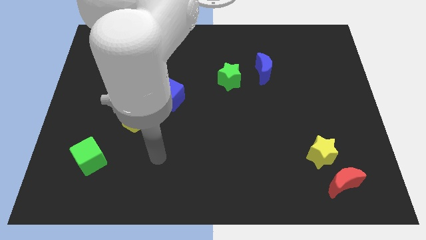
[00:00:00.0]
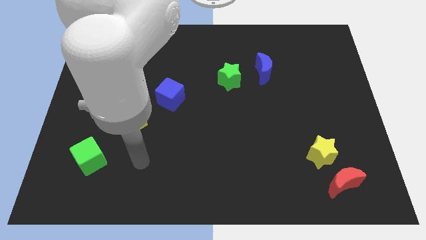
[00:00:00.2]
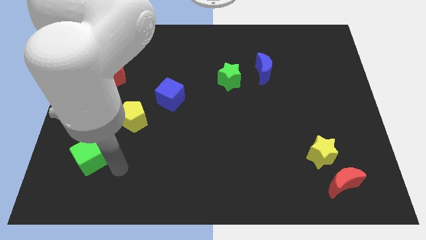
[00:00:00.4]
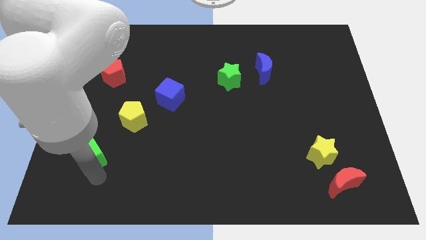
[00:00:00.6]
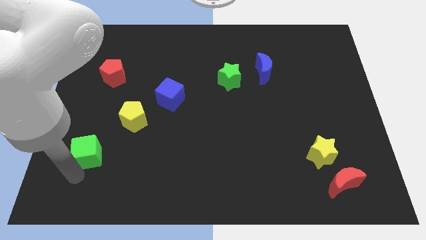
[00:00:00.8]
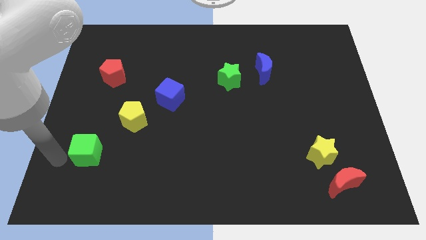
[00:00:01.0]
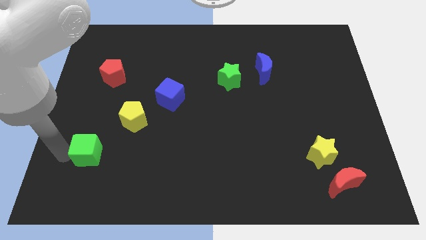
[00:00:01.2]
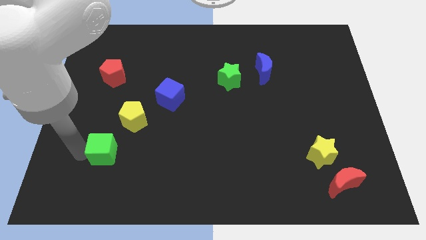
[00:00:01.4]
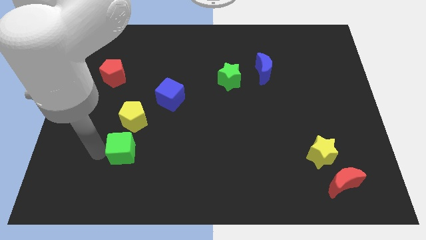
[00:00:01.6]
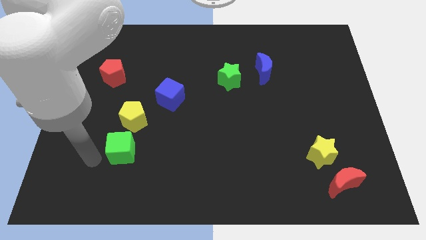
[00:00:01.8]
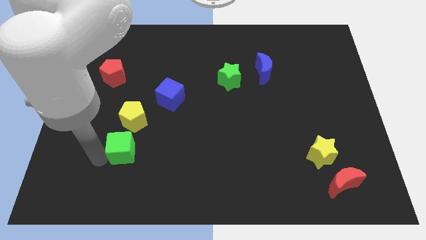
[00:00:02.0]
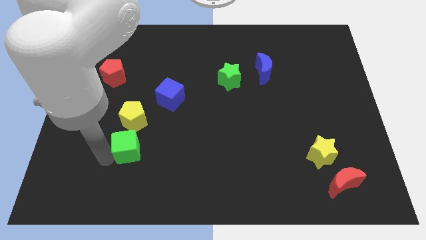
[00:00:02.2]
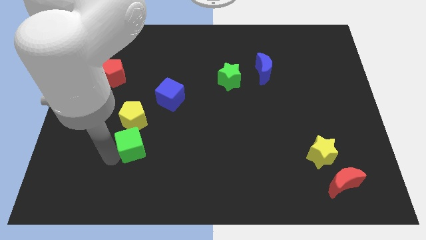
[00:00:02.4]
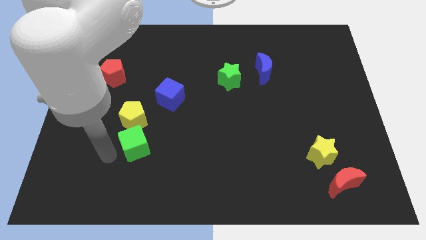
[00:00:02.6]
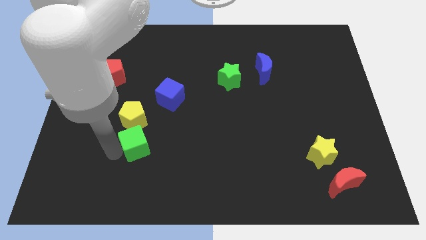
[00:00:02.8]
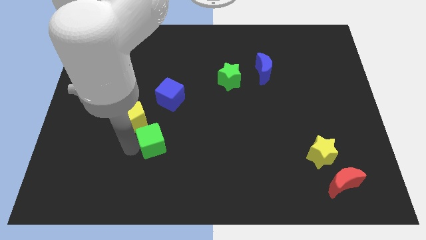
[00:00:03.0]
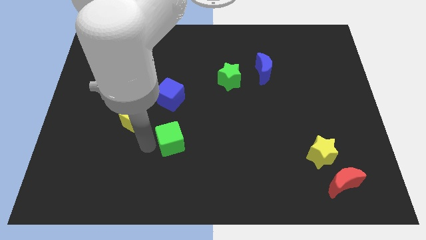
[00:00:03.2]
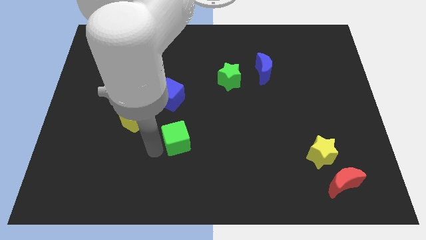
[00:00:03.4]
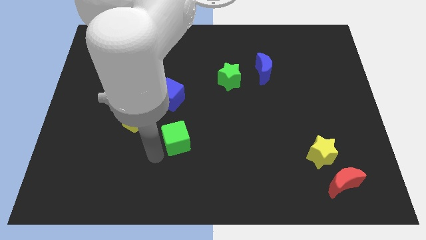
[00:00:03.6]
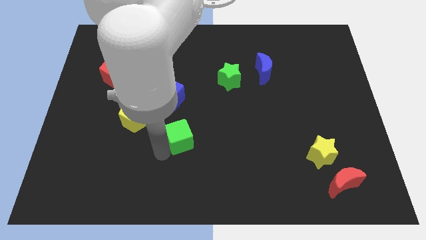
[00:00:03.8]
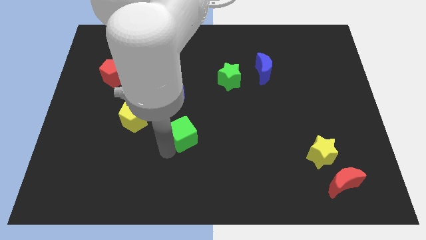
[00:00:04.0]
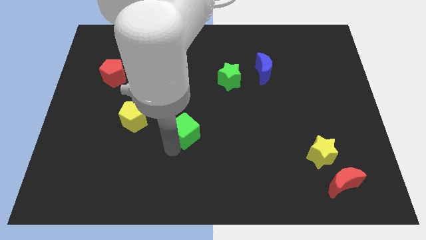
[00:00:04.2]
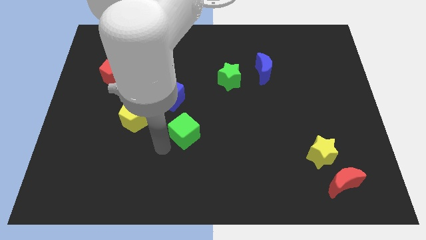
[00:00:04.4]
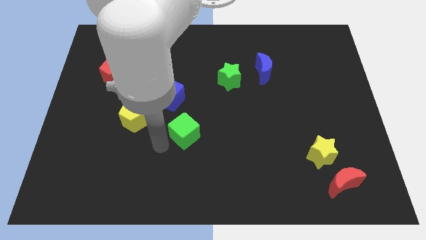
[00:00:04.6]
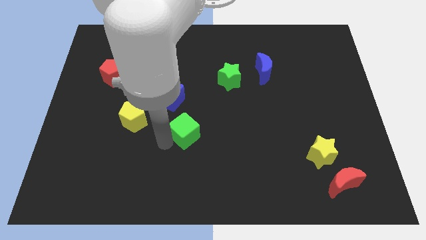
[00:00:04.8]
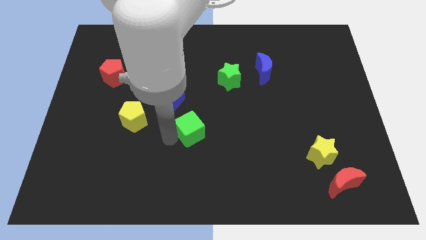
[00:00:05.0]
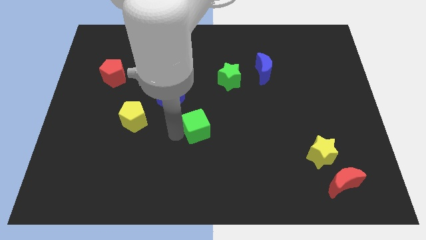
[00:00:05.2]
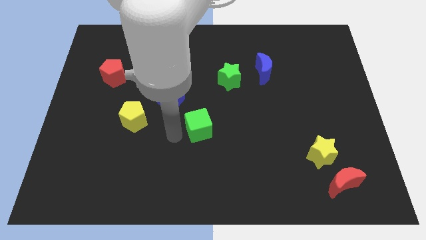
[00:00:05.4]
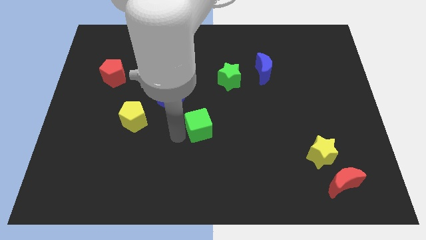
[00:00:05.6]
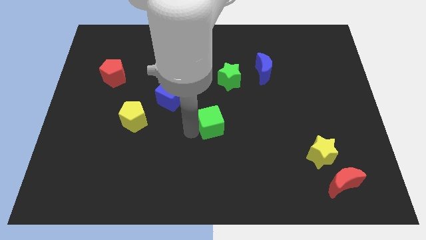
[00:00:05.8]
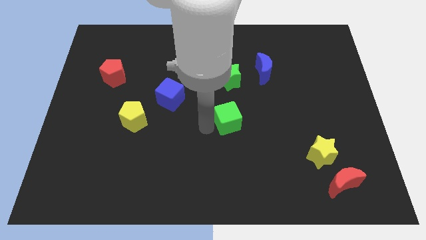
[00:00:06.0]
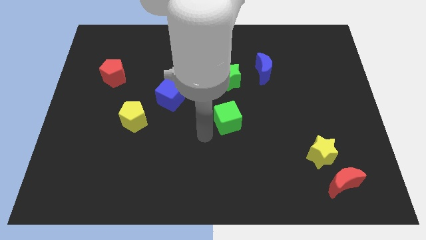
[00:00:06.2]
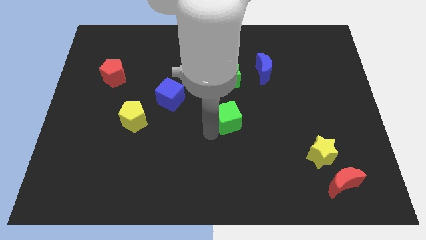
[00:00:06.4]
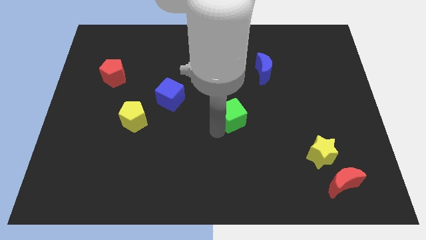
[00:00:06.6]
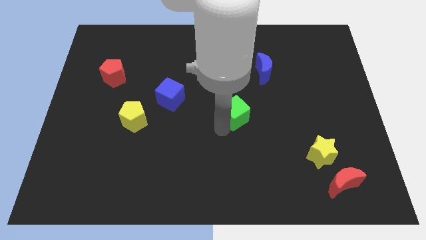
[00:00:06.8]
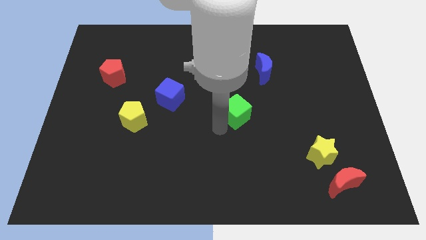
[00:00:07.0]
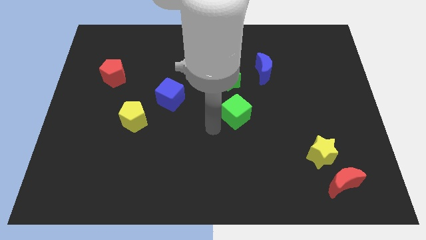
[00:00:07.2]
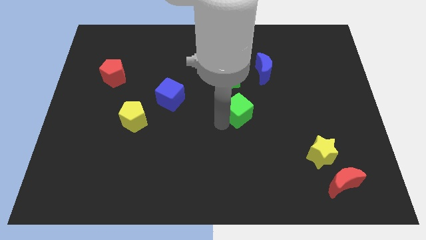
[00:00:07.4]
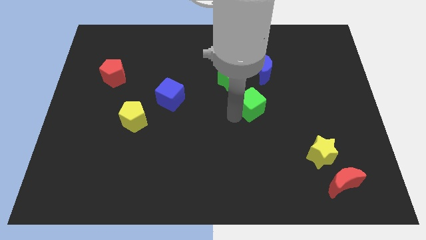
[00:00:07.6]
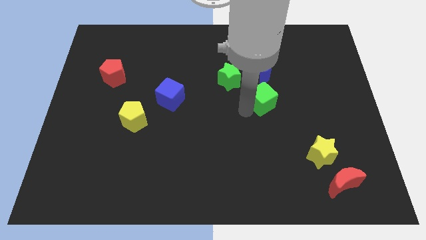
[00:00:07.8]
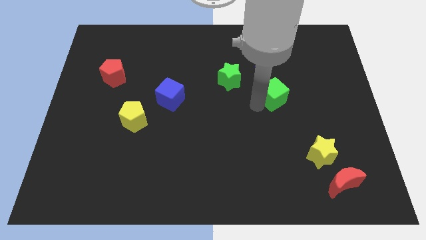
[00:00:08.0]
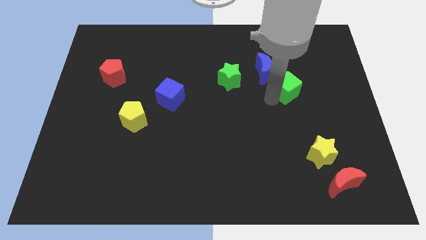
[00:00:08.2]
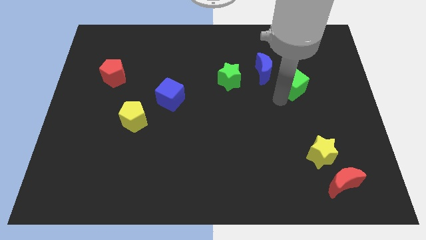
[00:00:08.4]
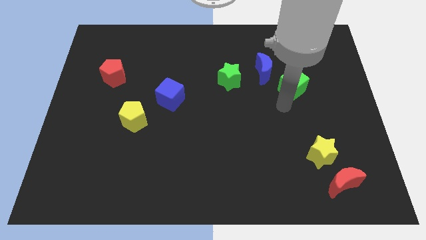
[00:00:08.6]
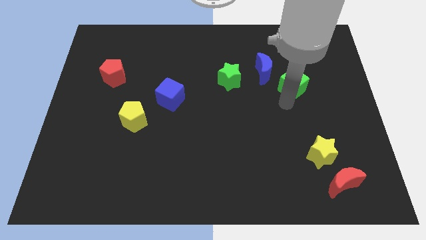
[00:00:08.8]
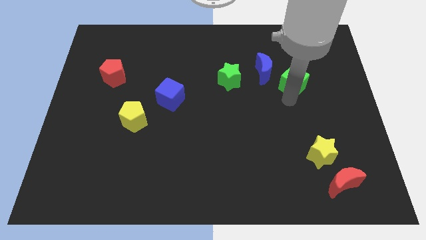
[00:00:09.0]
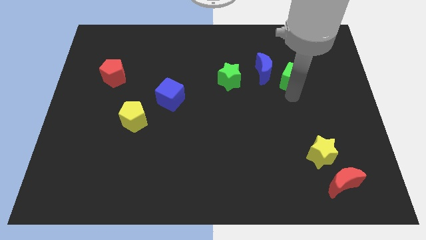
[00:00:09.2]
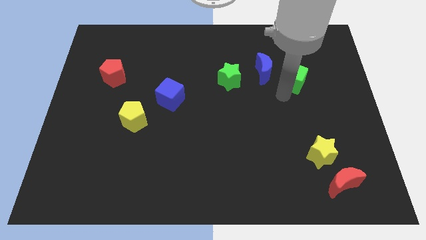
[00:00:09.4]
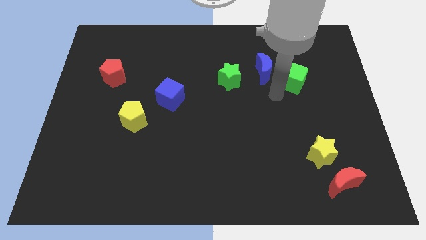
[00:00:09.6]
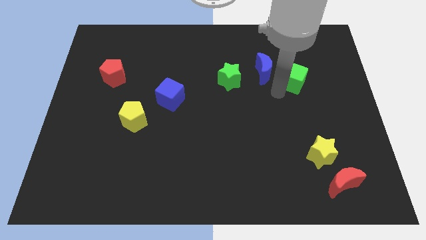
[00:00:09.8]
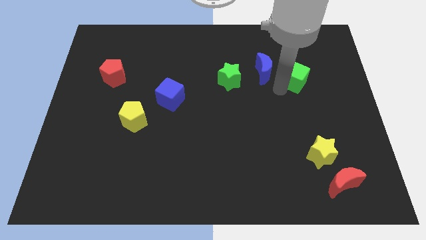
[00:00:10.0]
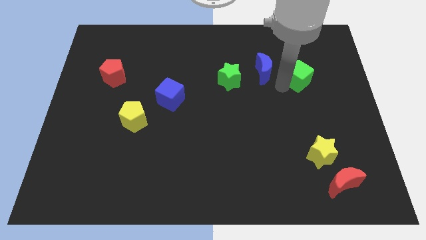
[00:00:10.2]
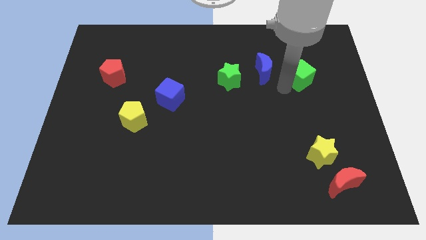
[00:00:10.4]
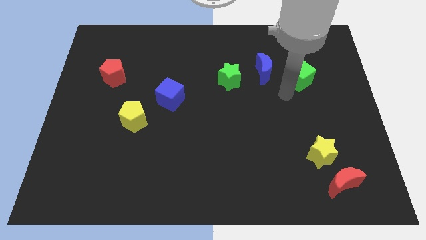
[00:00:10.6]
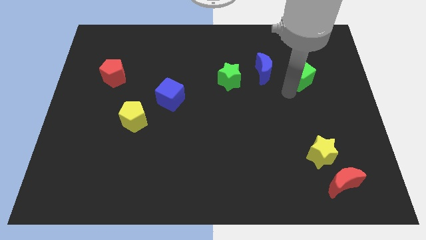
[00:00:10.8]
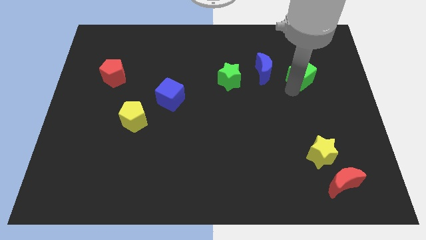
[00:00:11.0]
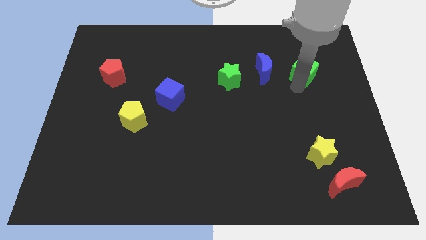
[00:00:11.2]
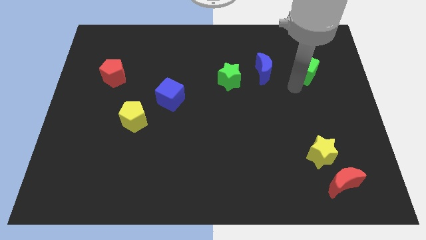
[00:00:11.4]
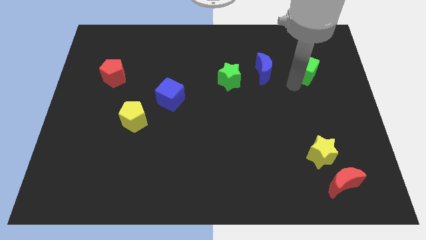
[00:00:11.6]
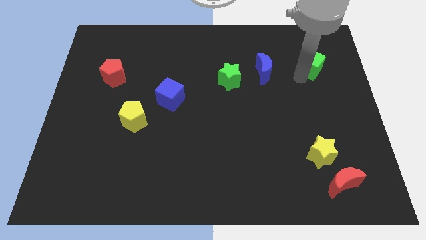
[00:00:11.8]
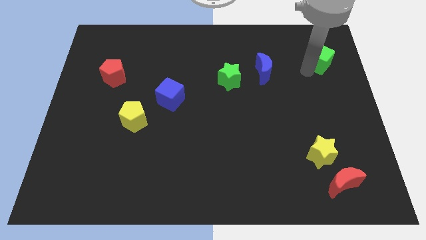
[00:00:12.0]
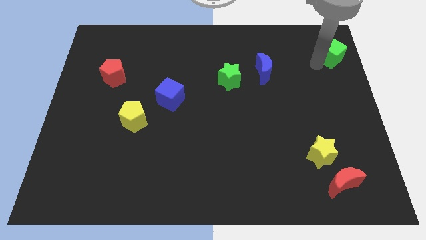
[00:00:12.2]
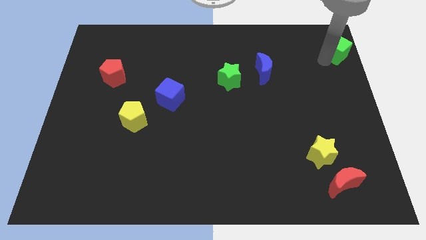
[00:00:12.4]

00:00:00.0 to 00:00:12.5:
slide the green cube to the top right corner
